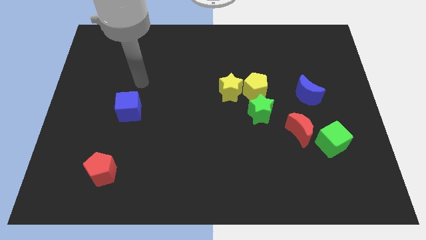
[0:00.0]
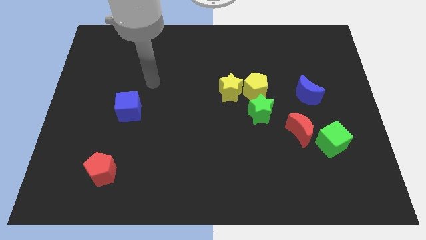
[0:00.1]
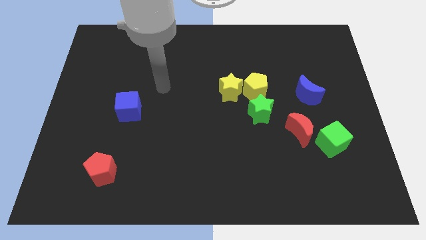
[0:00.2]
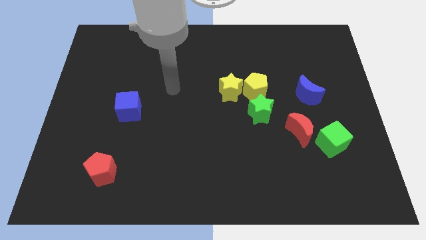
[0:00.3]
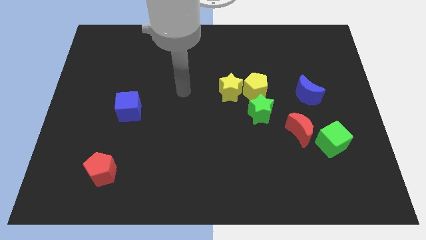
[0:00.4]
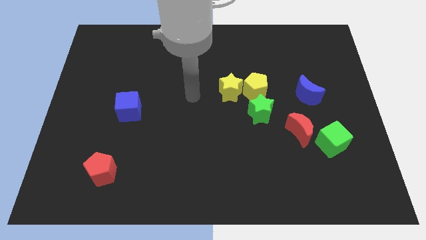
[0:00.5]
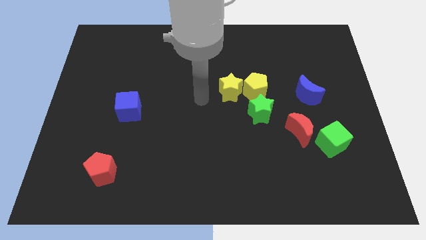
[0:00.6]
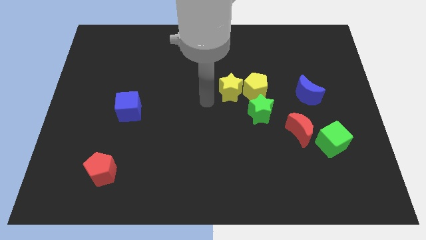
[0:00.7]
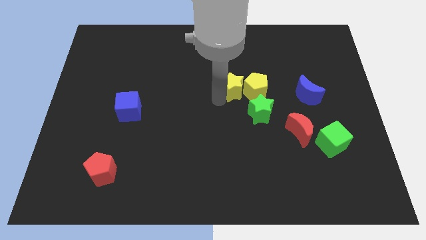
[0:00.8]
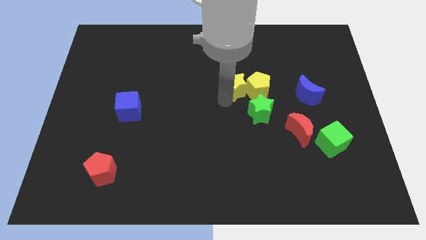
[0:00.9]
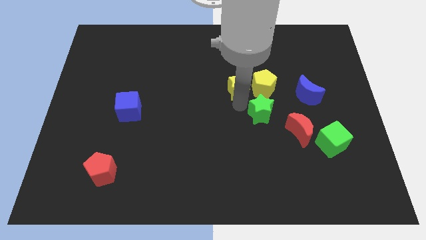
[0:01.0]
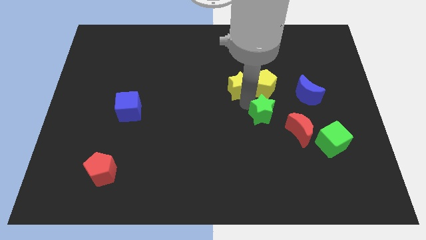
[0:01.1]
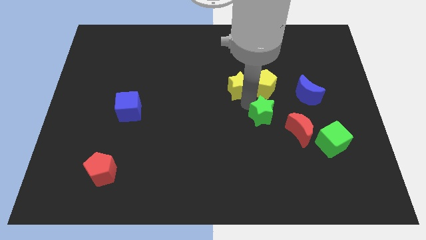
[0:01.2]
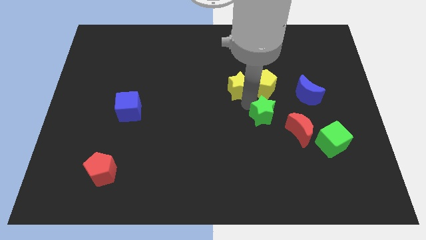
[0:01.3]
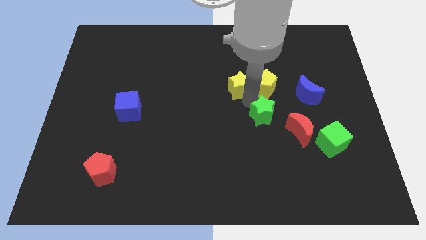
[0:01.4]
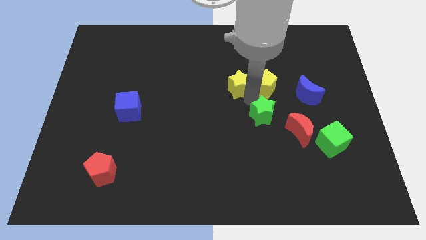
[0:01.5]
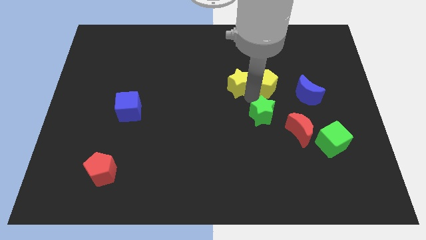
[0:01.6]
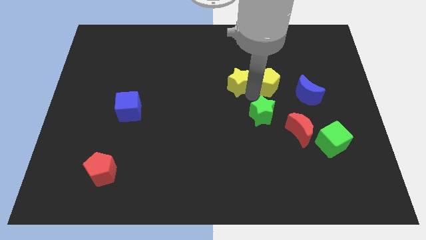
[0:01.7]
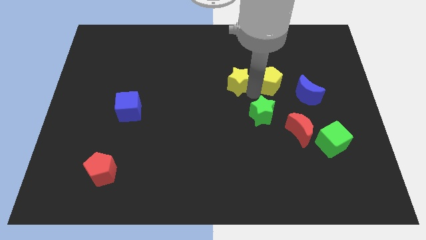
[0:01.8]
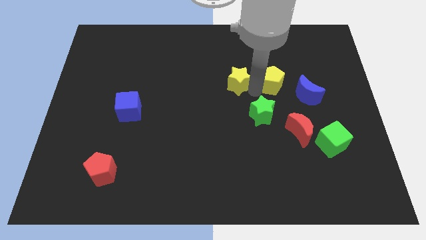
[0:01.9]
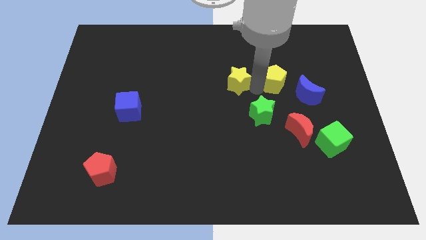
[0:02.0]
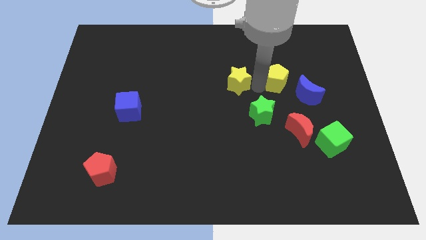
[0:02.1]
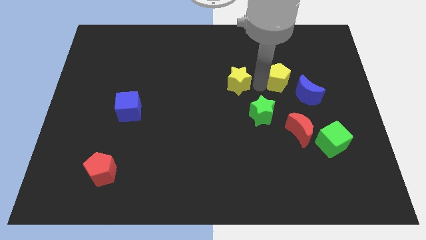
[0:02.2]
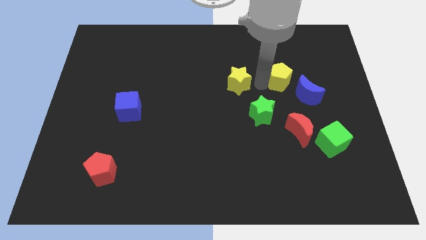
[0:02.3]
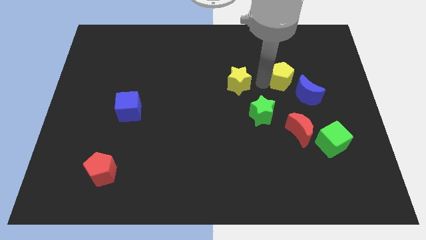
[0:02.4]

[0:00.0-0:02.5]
separate the yellow pentagon from the yellow star and green star

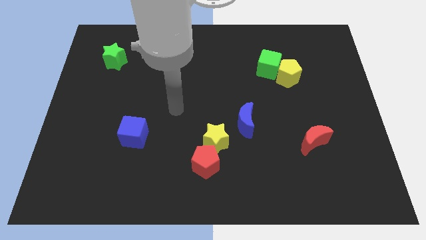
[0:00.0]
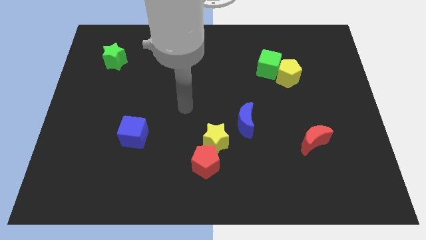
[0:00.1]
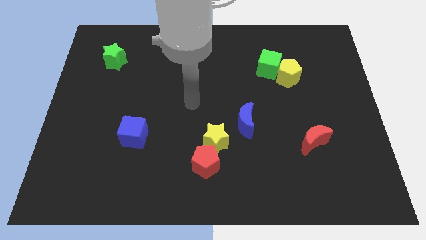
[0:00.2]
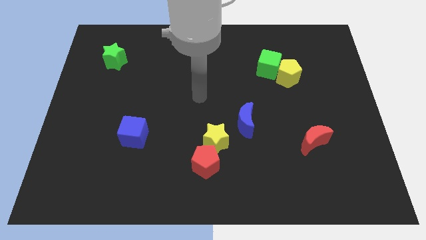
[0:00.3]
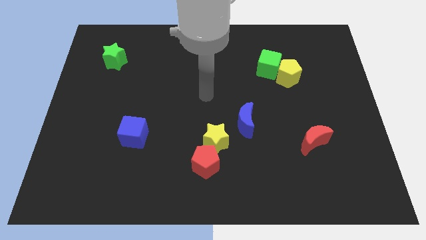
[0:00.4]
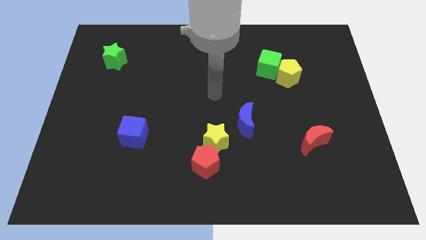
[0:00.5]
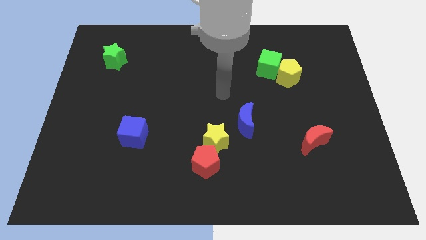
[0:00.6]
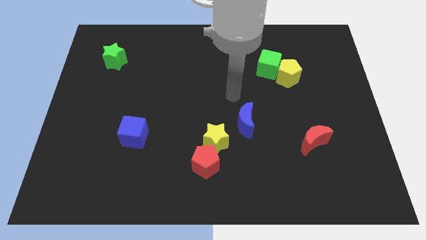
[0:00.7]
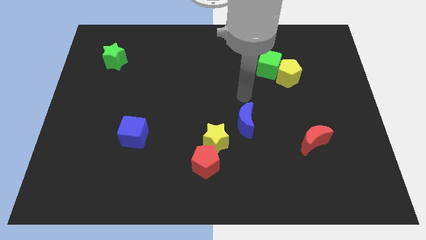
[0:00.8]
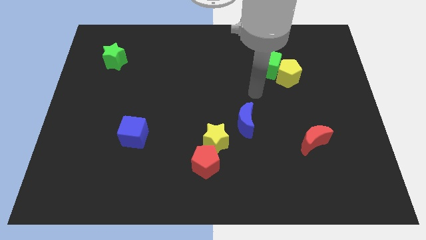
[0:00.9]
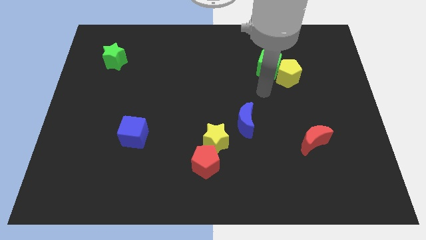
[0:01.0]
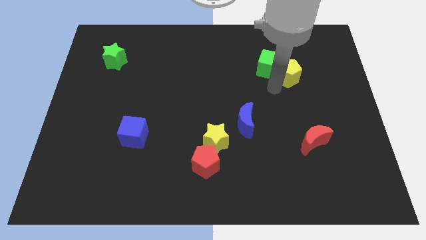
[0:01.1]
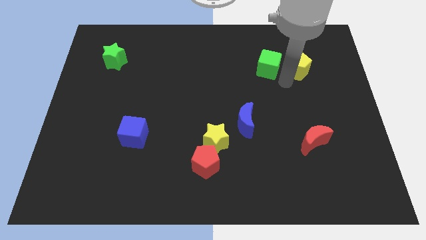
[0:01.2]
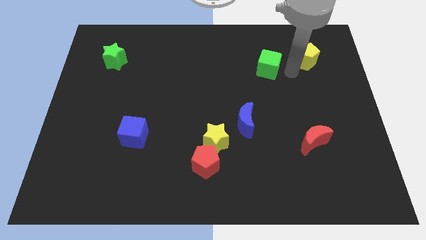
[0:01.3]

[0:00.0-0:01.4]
move the green cube away from the yellow pentagon

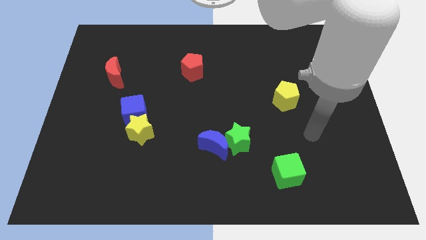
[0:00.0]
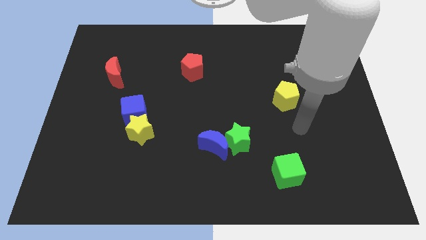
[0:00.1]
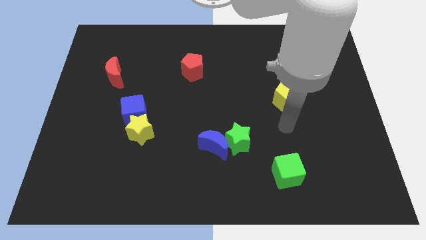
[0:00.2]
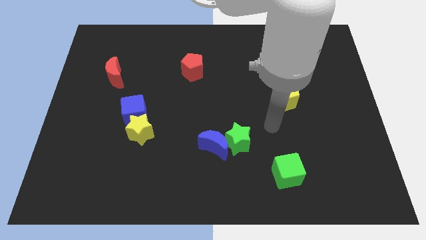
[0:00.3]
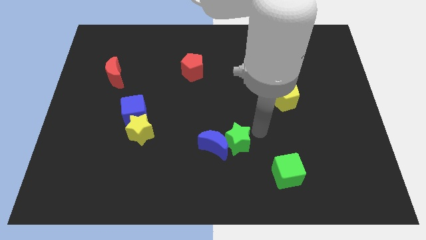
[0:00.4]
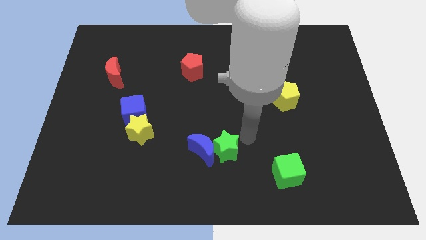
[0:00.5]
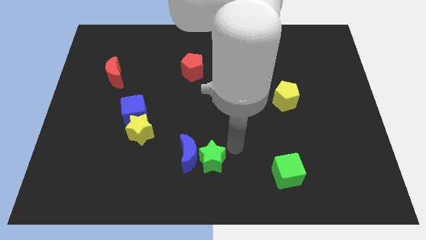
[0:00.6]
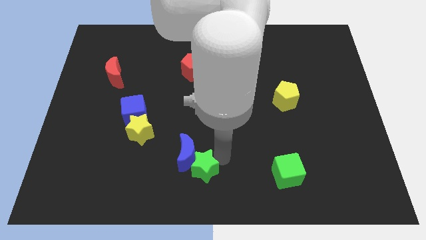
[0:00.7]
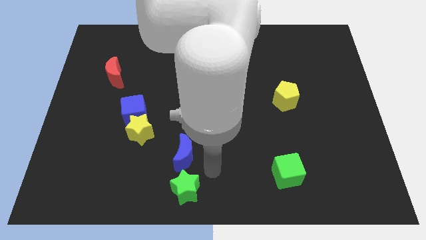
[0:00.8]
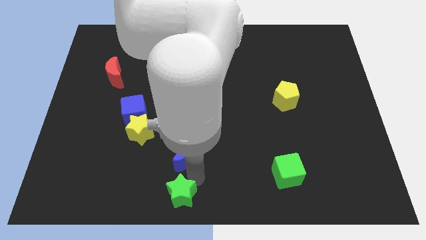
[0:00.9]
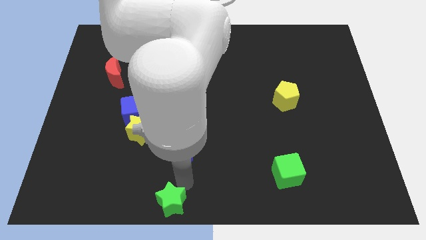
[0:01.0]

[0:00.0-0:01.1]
move the blue moon away from the green star

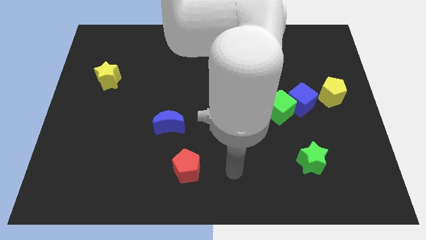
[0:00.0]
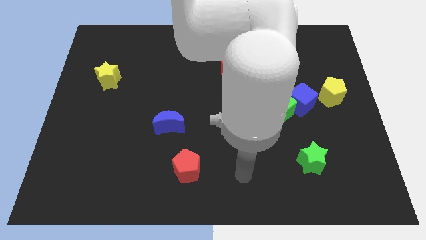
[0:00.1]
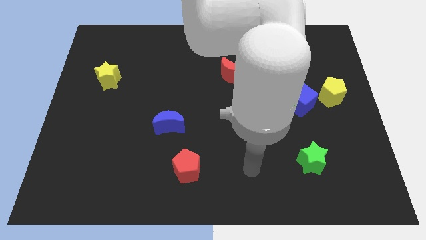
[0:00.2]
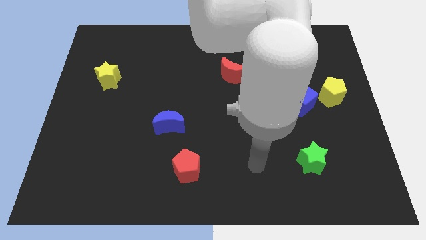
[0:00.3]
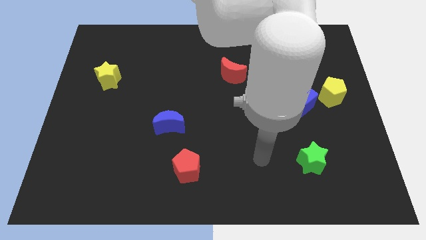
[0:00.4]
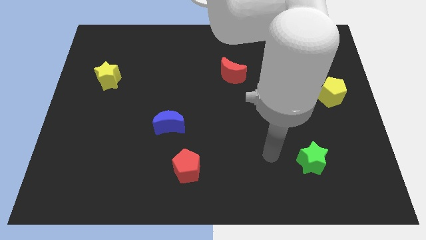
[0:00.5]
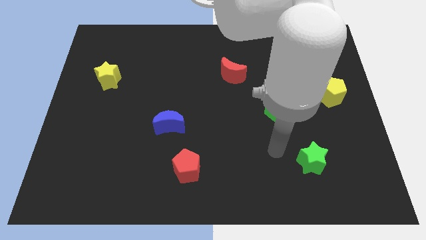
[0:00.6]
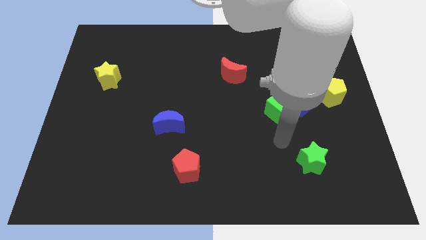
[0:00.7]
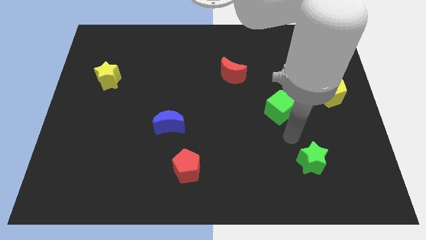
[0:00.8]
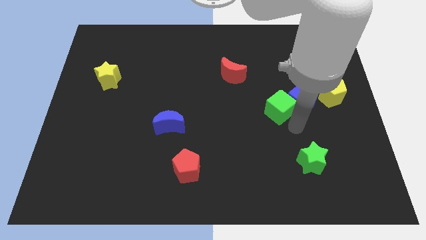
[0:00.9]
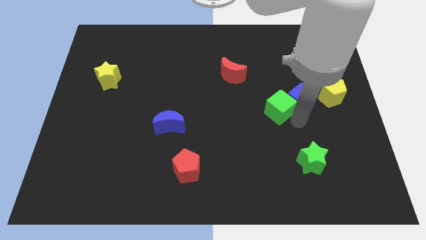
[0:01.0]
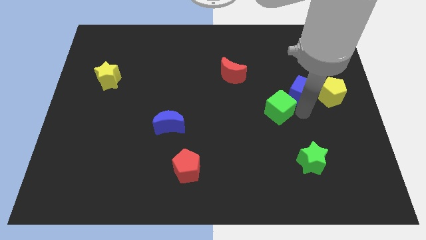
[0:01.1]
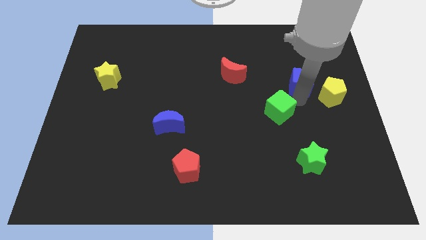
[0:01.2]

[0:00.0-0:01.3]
pull the green cube apart from the blue cube

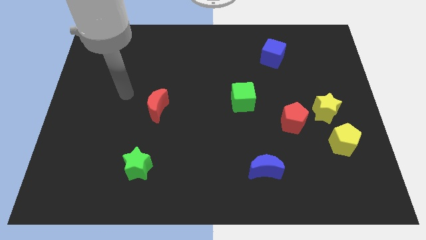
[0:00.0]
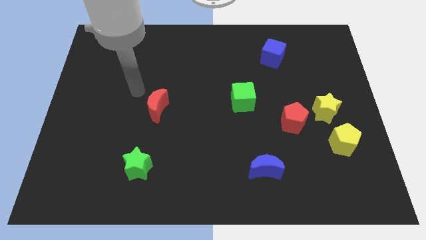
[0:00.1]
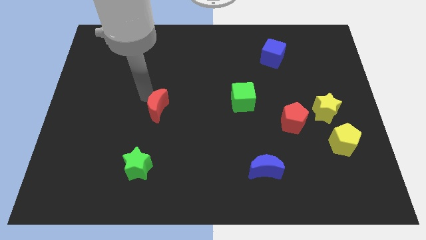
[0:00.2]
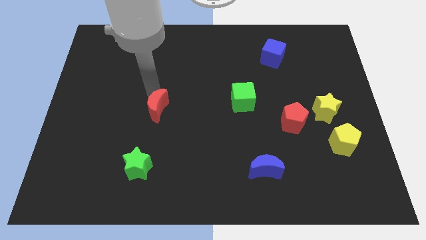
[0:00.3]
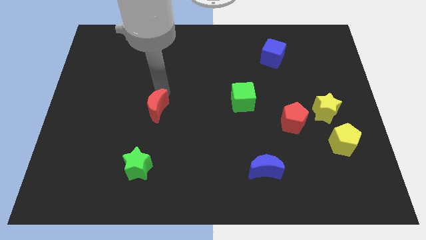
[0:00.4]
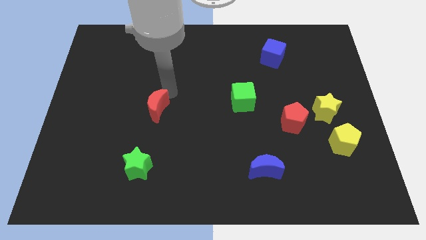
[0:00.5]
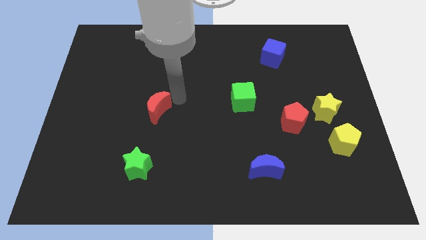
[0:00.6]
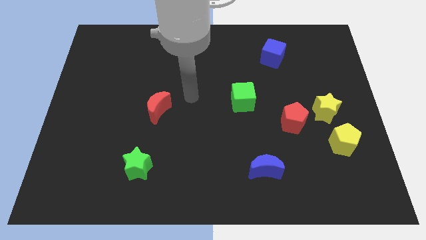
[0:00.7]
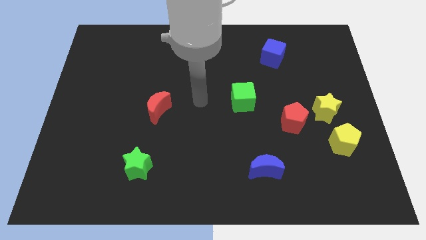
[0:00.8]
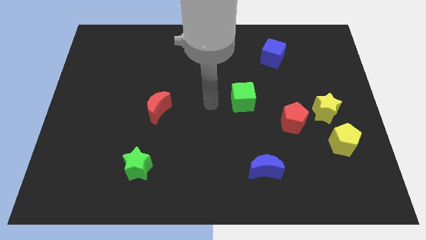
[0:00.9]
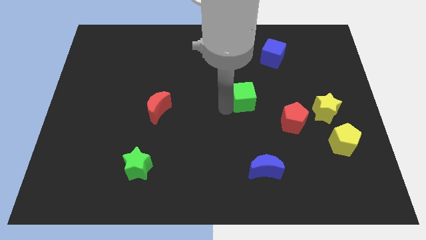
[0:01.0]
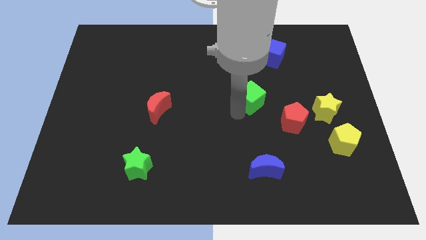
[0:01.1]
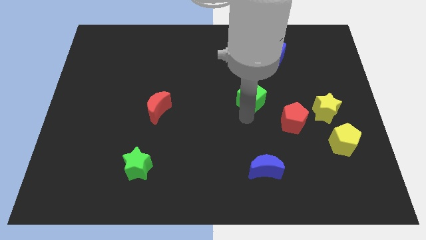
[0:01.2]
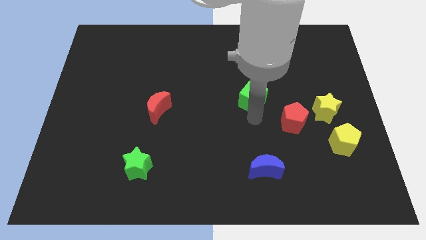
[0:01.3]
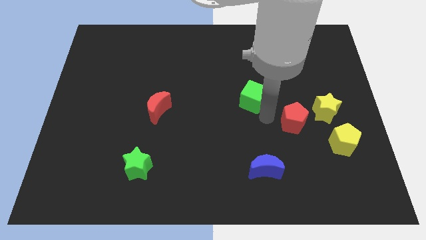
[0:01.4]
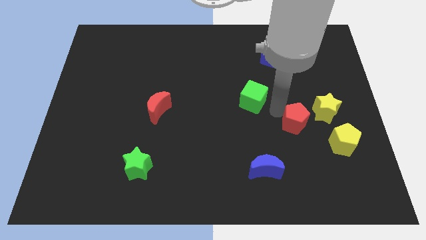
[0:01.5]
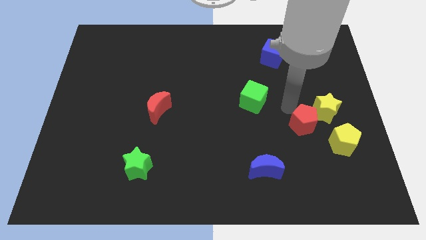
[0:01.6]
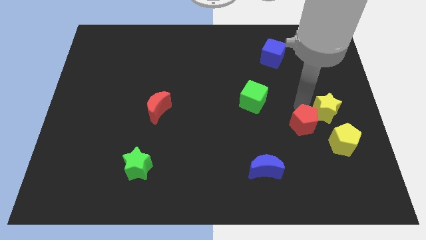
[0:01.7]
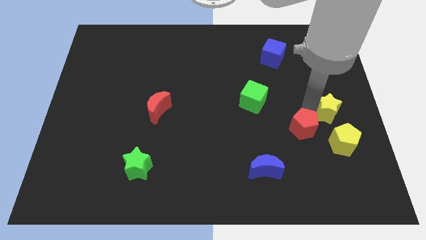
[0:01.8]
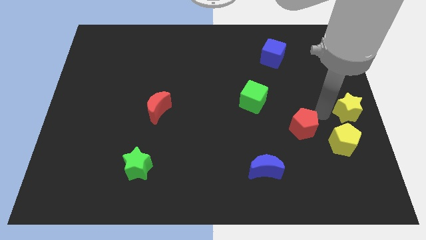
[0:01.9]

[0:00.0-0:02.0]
move the red pentagon away from the yellow star

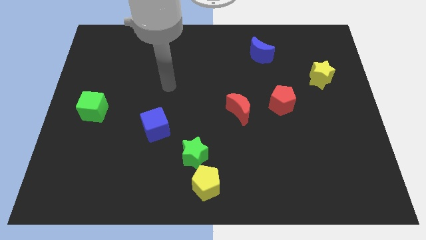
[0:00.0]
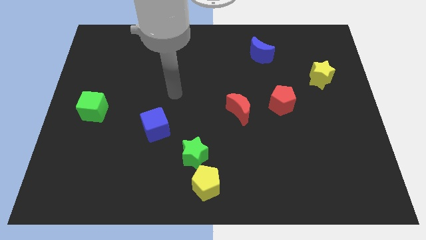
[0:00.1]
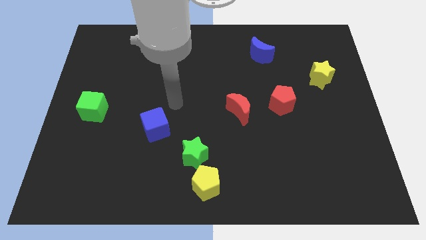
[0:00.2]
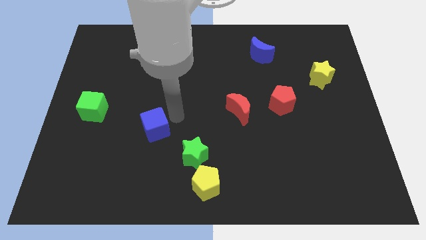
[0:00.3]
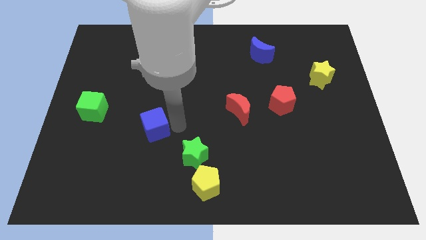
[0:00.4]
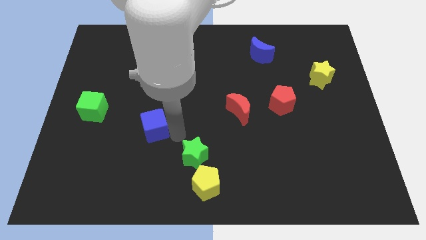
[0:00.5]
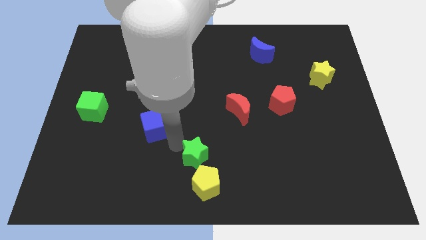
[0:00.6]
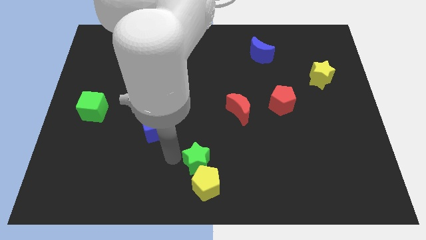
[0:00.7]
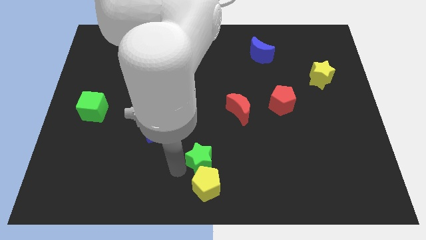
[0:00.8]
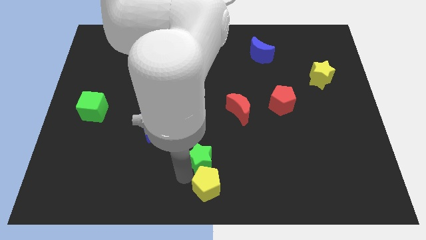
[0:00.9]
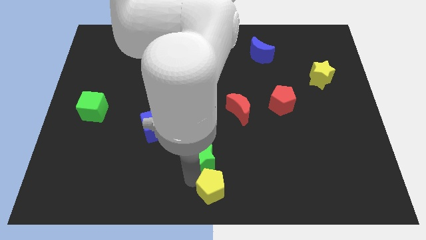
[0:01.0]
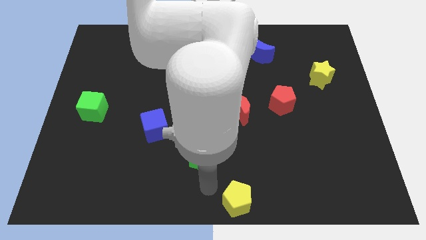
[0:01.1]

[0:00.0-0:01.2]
pull the green star apart from the yellow pentagon
